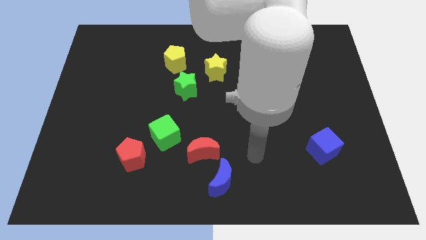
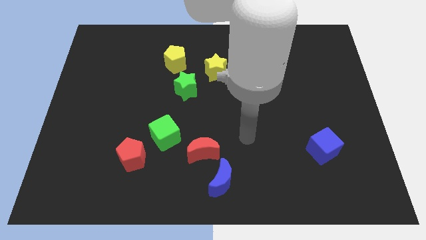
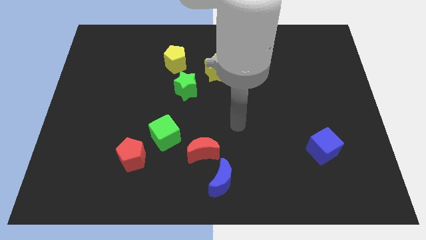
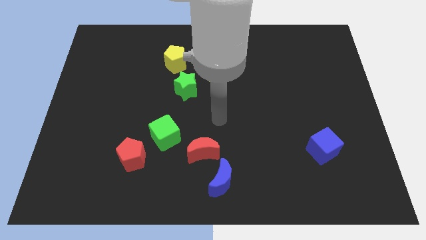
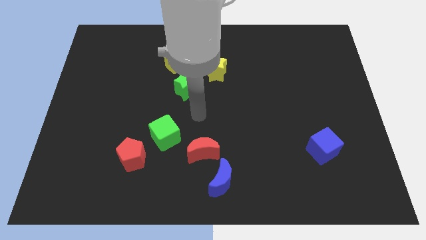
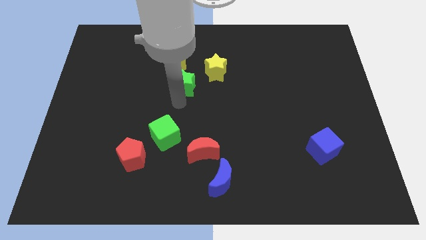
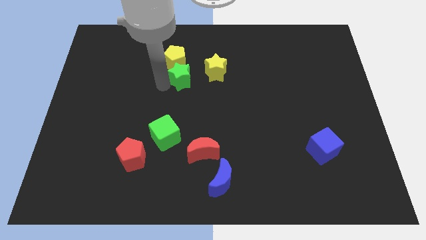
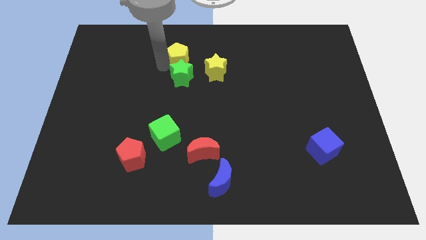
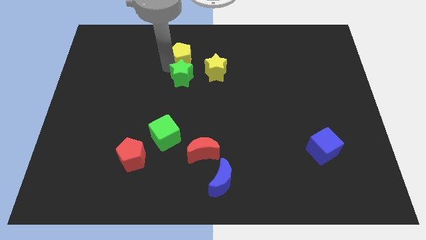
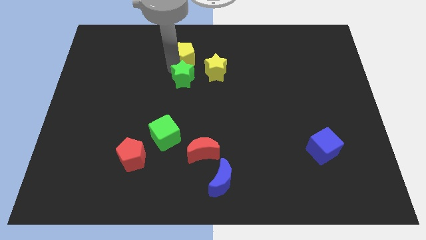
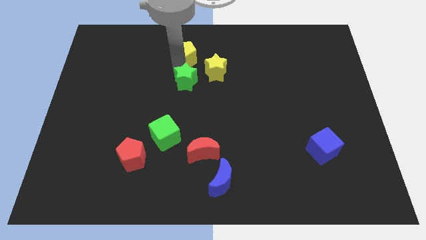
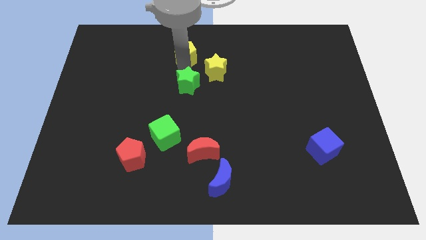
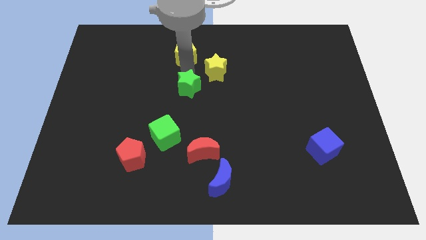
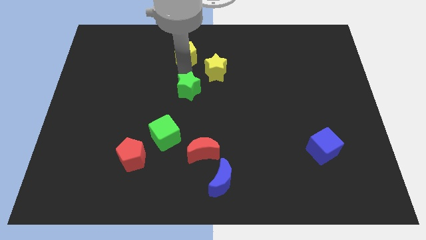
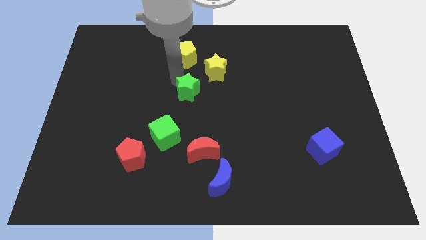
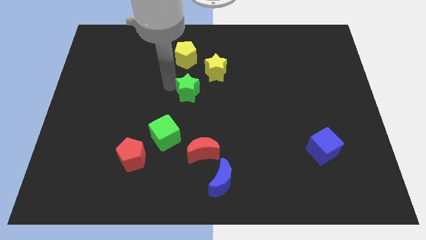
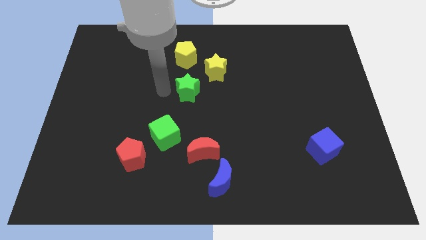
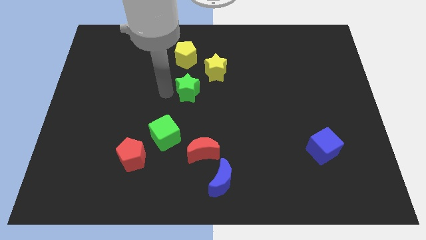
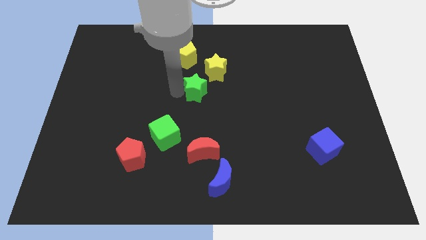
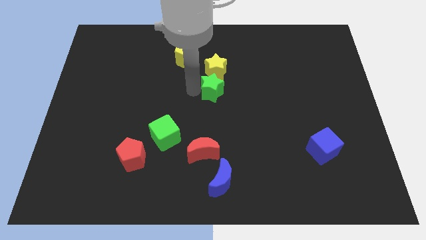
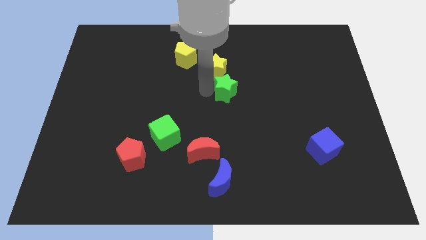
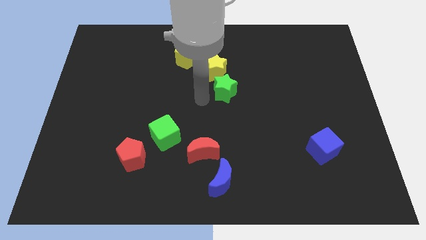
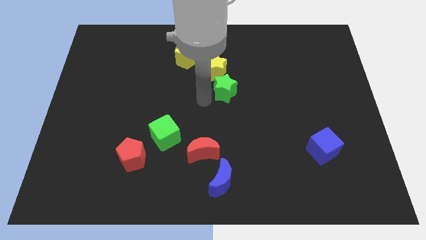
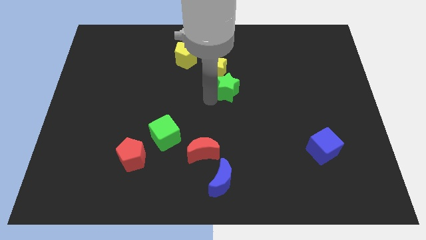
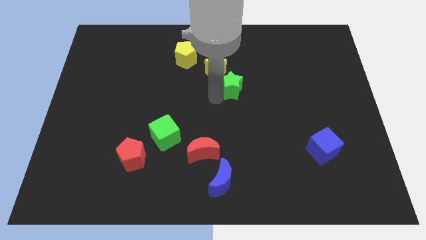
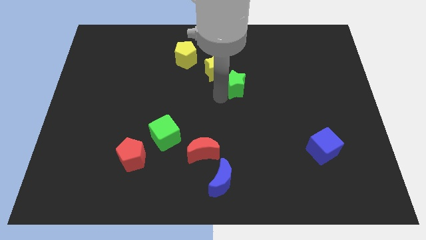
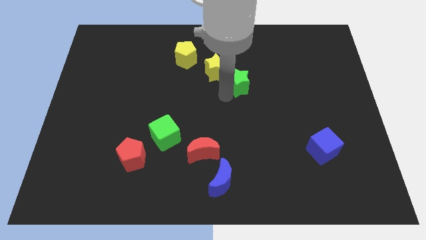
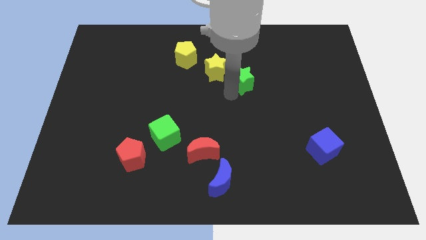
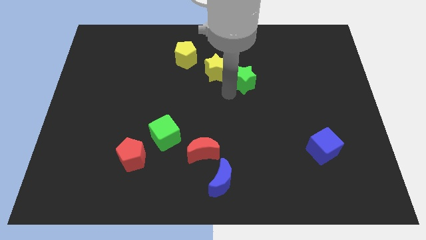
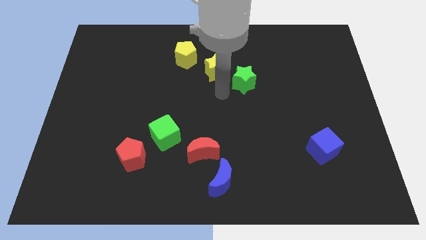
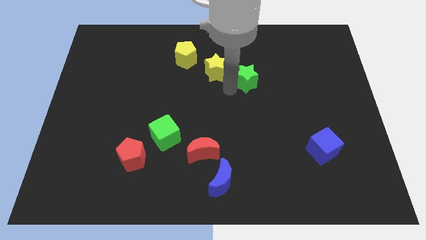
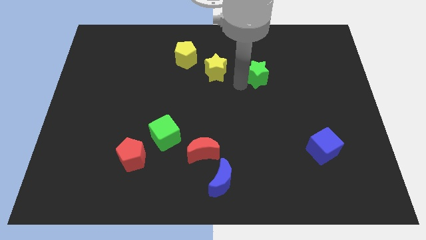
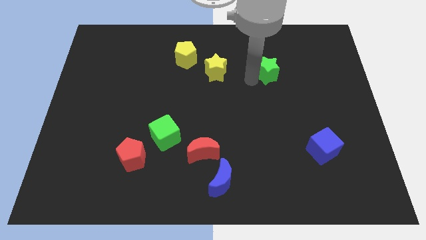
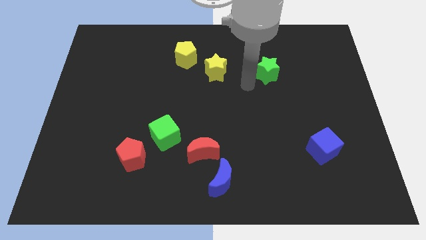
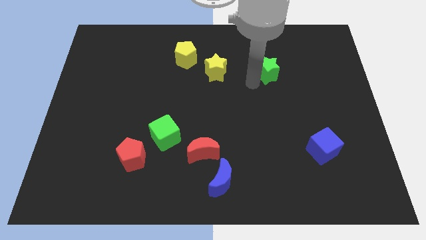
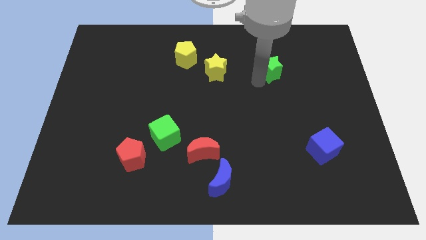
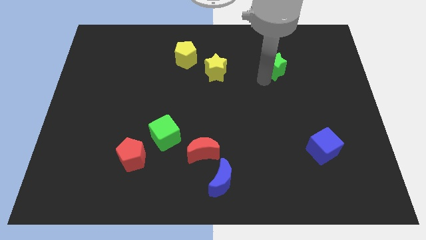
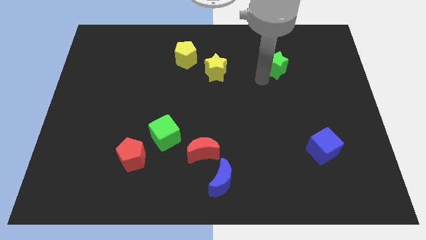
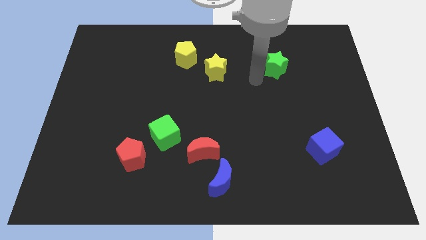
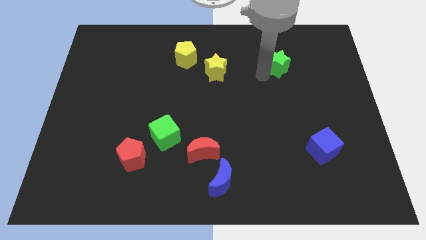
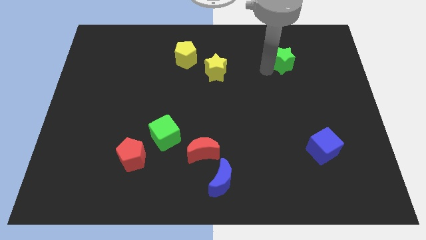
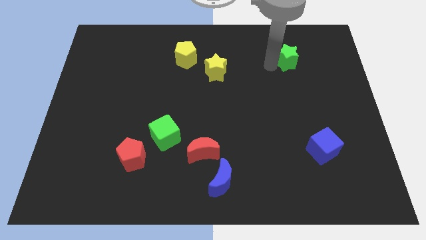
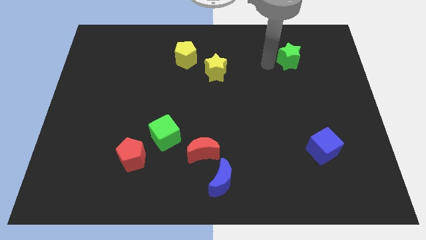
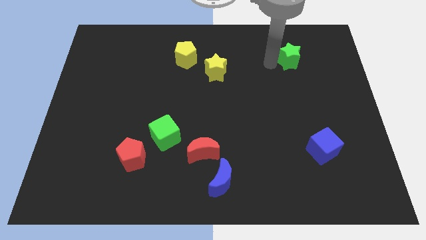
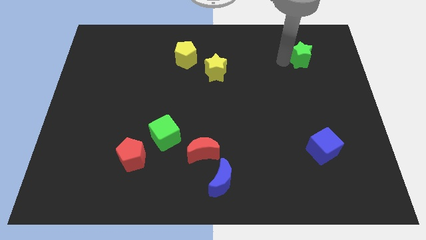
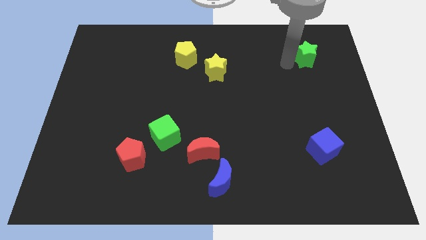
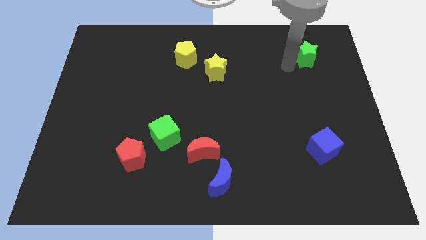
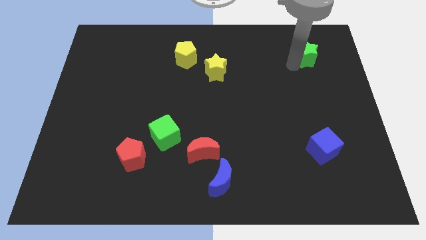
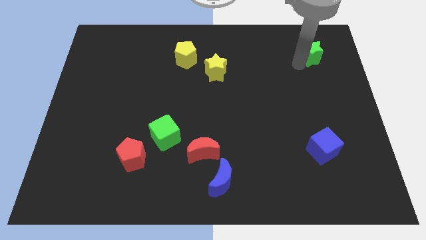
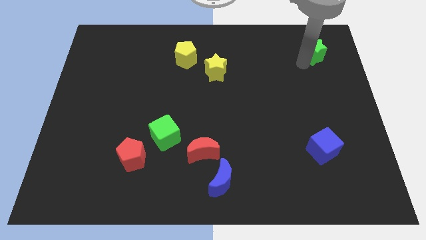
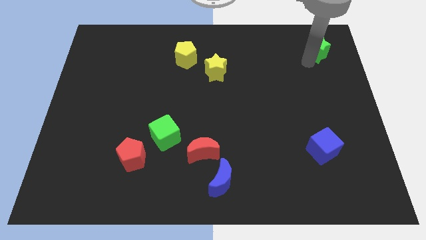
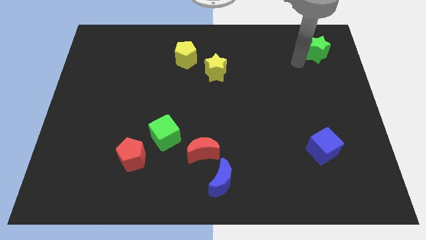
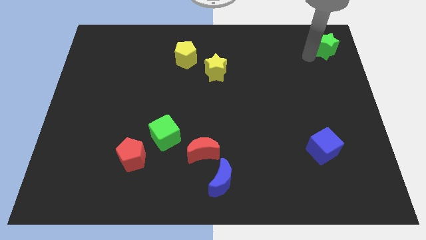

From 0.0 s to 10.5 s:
put the green star to the upper right corner

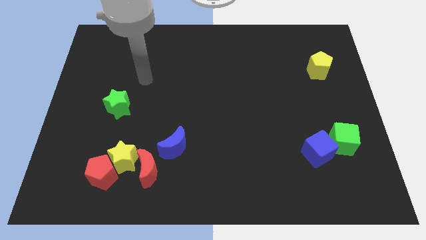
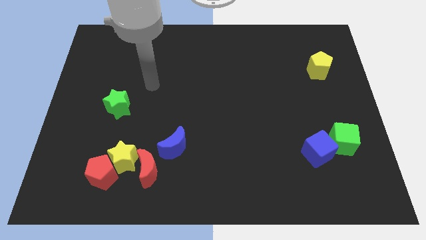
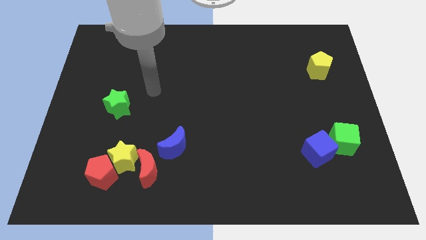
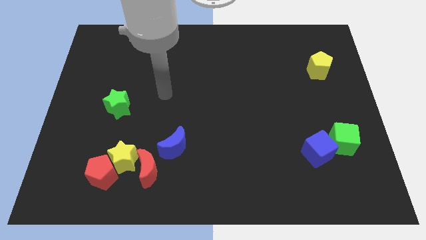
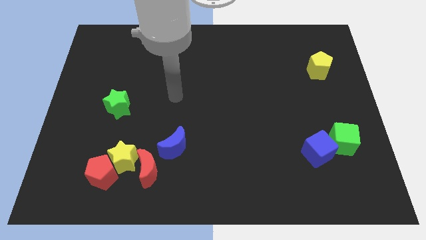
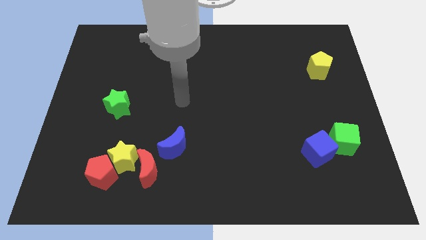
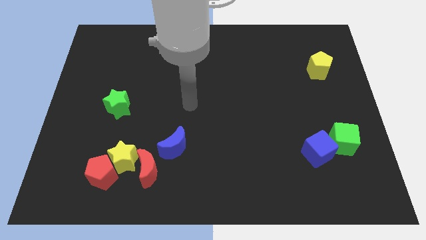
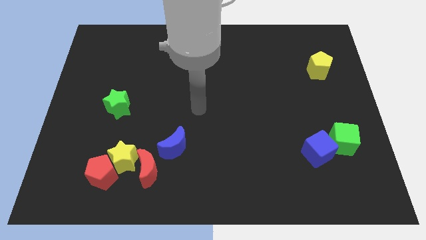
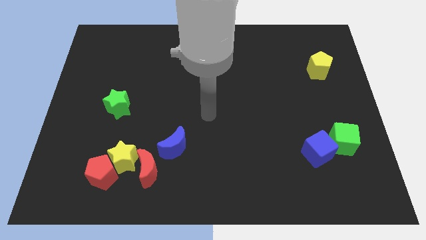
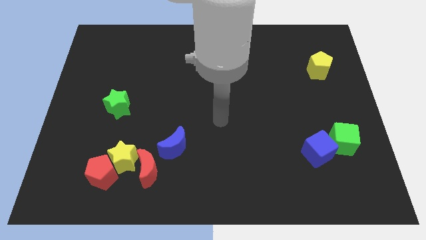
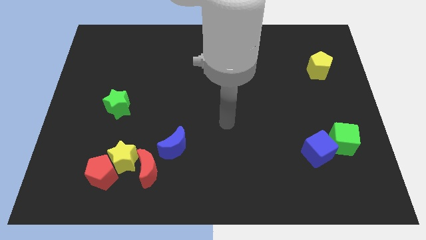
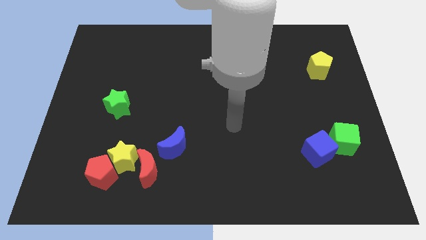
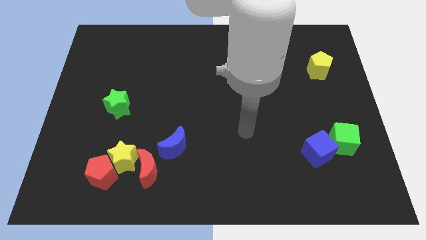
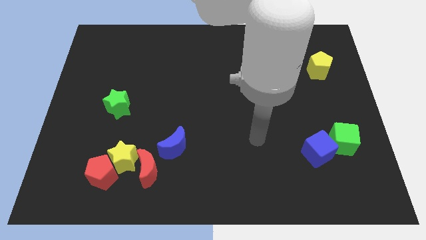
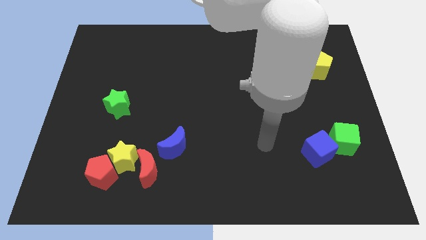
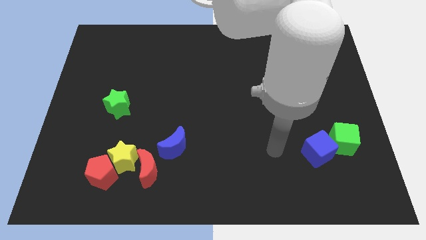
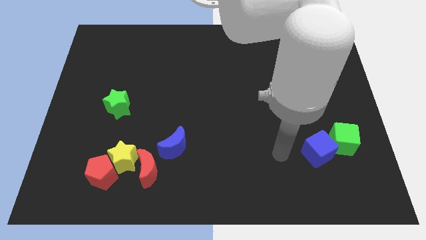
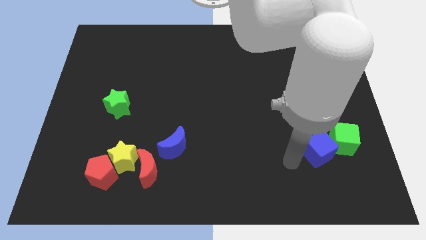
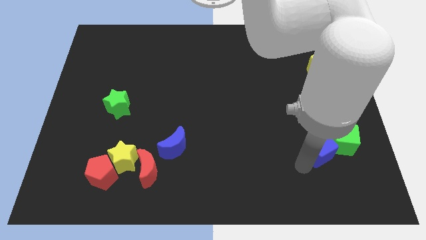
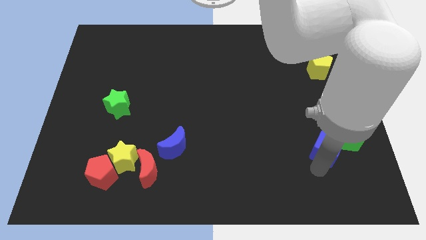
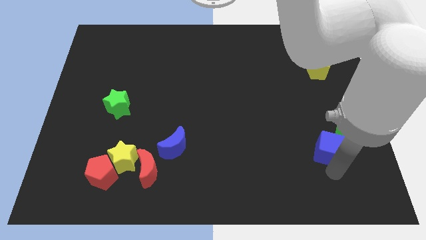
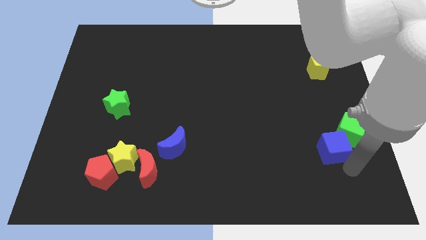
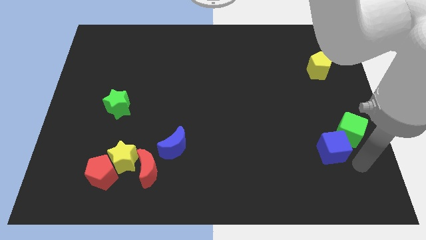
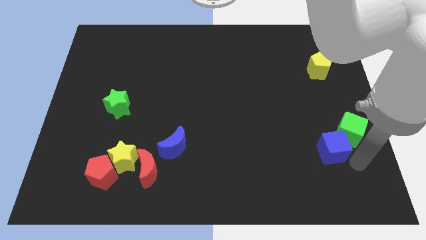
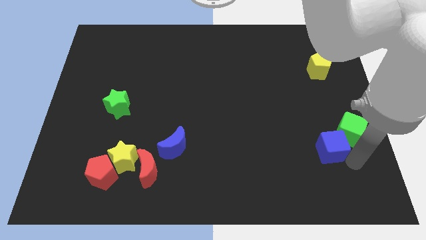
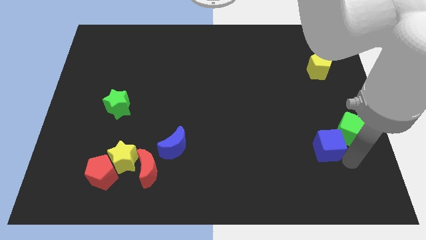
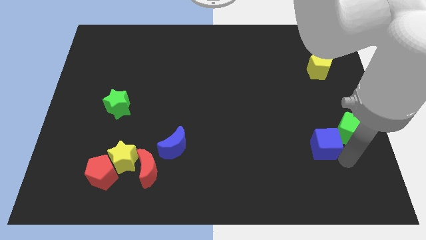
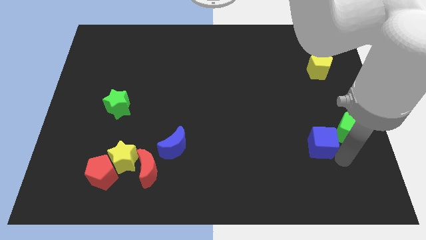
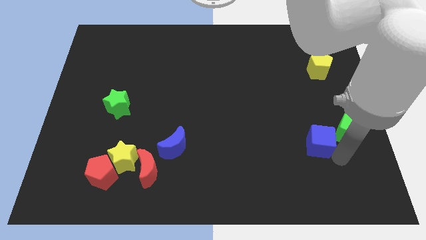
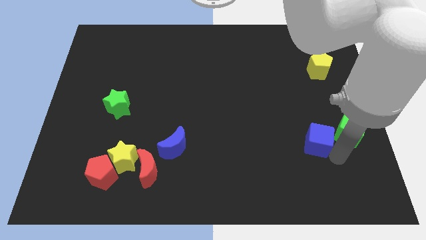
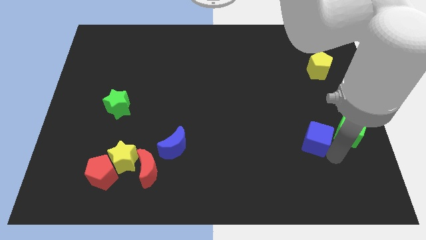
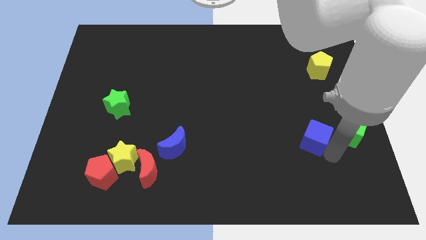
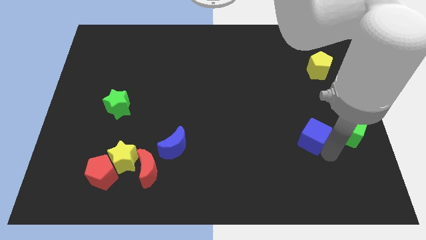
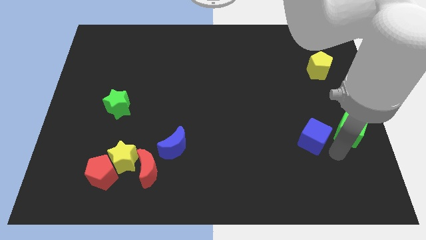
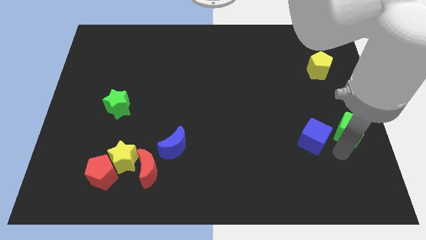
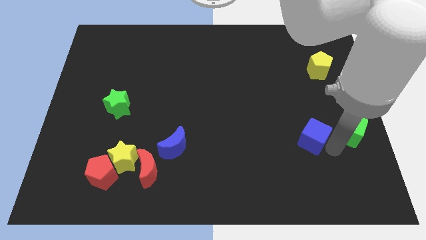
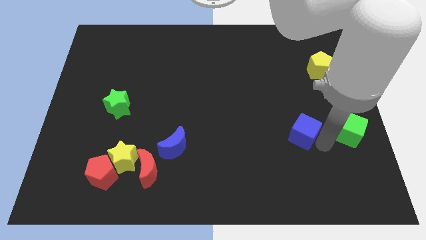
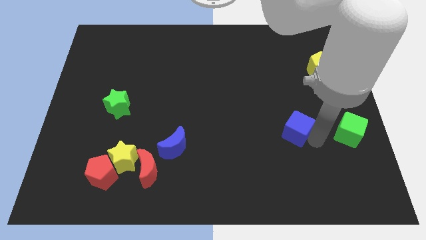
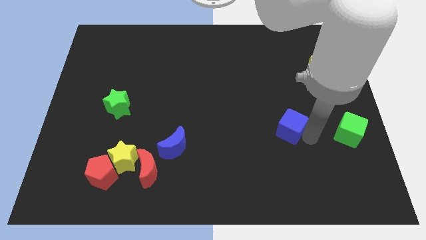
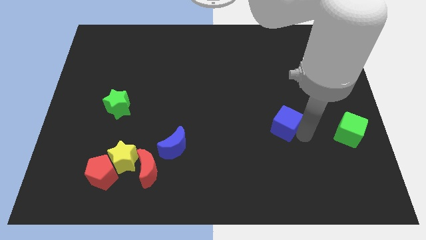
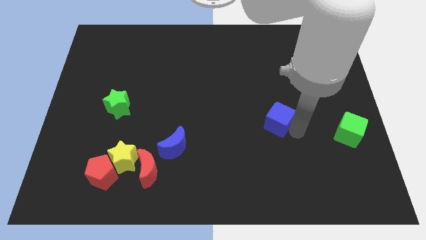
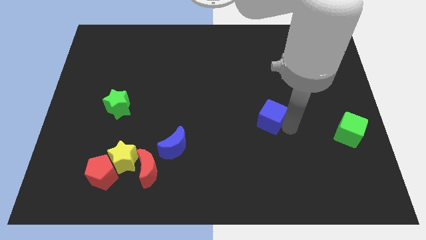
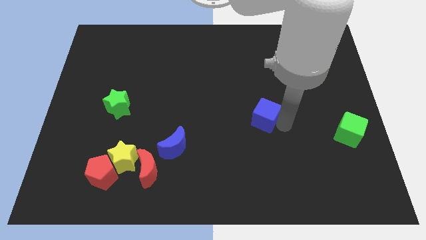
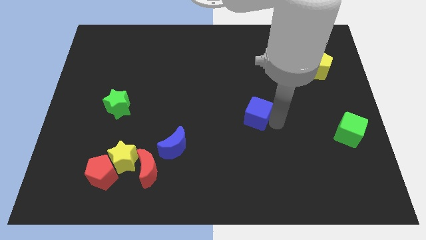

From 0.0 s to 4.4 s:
push the blue cube to the middle
